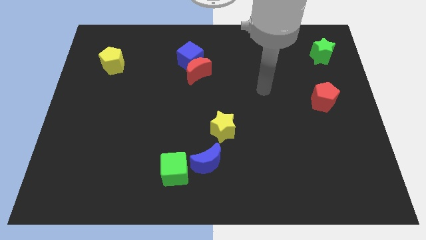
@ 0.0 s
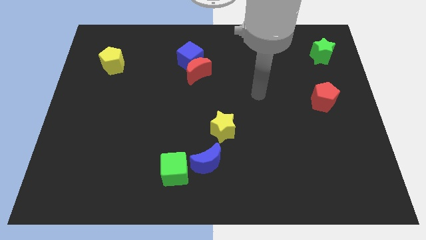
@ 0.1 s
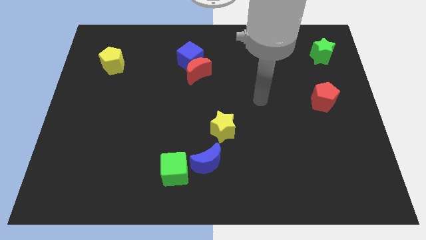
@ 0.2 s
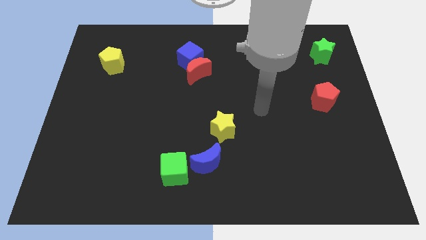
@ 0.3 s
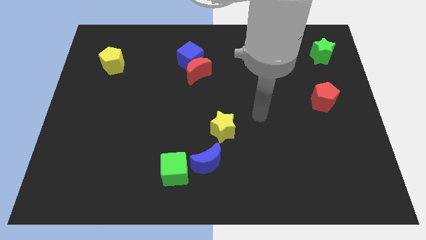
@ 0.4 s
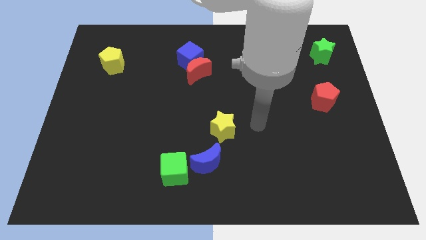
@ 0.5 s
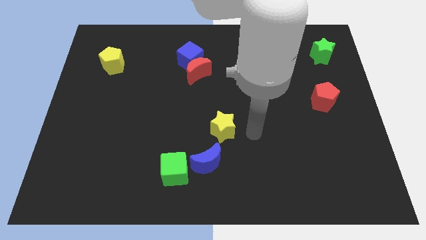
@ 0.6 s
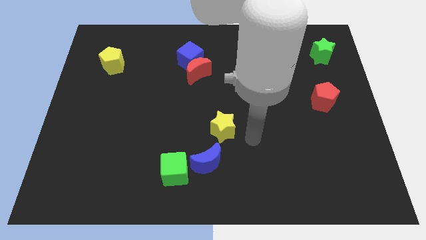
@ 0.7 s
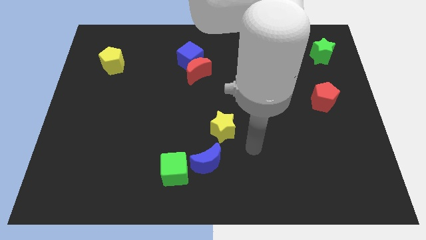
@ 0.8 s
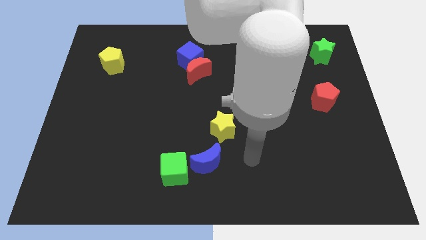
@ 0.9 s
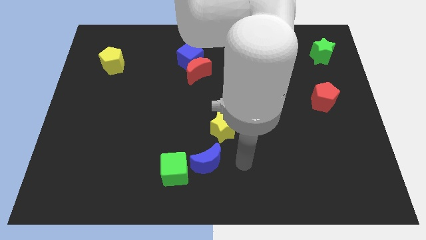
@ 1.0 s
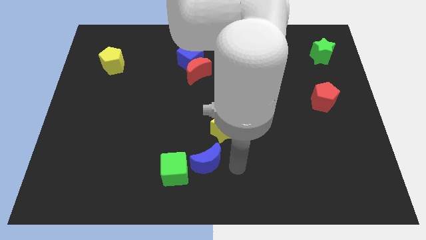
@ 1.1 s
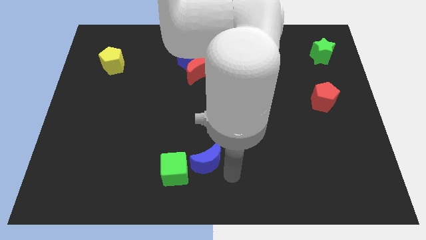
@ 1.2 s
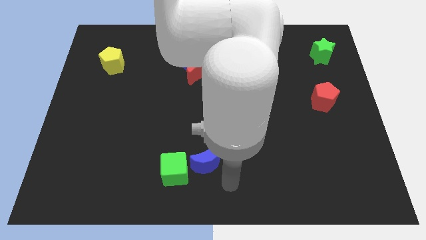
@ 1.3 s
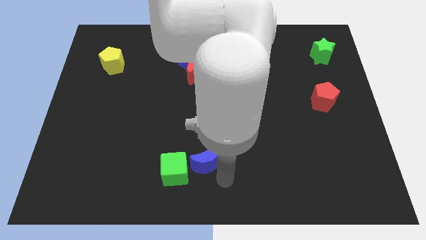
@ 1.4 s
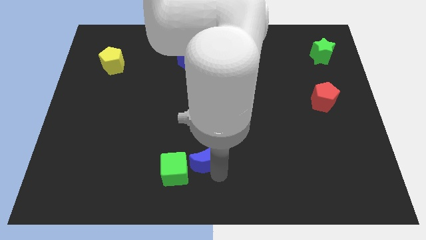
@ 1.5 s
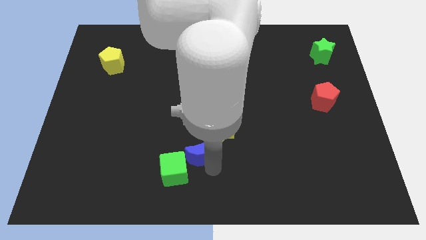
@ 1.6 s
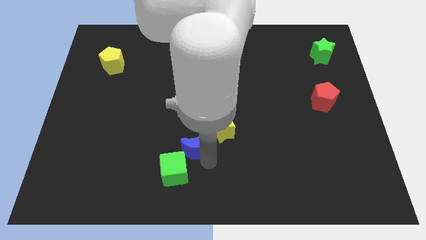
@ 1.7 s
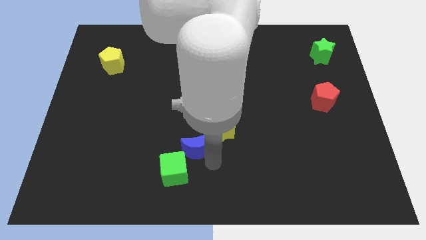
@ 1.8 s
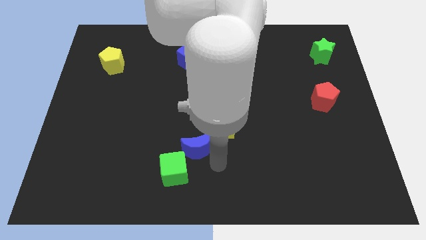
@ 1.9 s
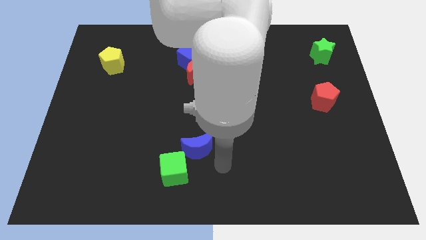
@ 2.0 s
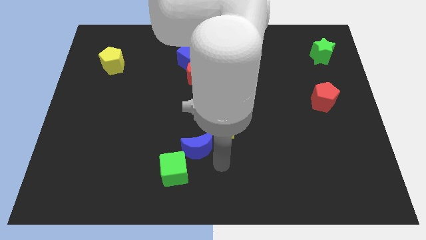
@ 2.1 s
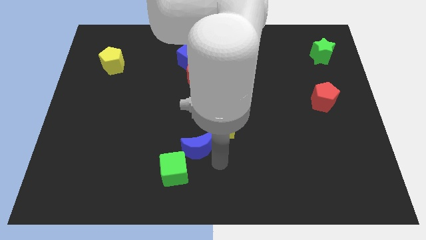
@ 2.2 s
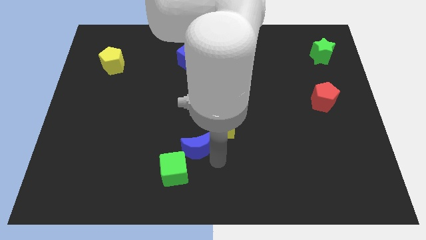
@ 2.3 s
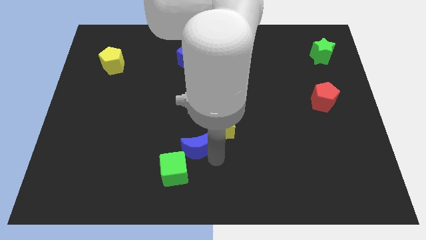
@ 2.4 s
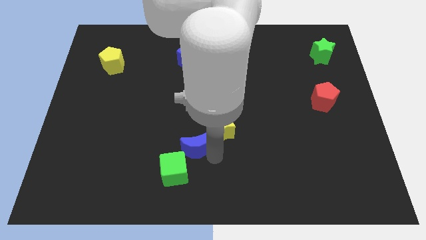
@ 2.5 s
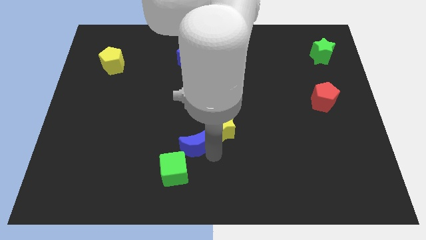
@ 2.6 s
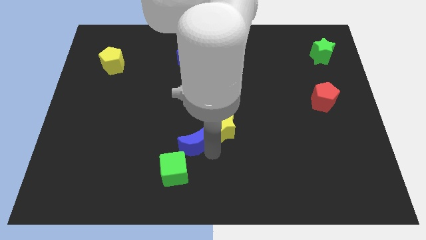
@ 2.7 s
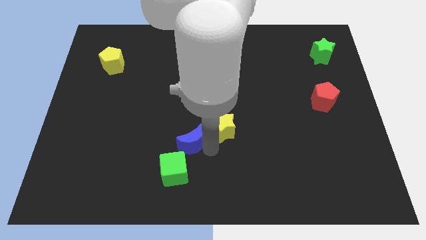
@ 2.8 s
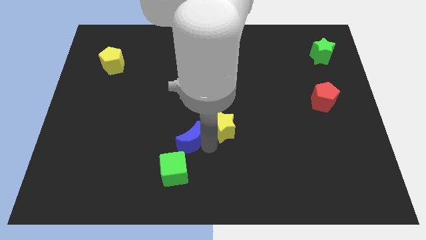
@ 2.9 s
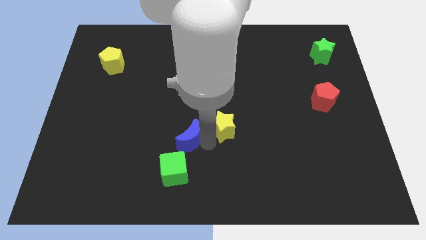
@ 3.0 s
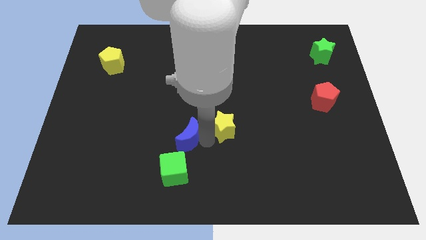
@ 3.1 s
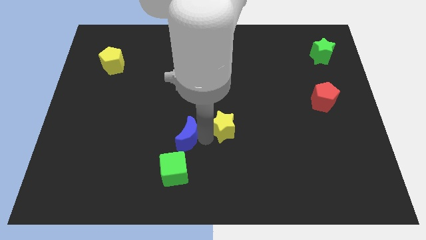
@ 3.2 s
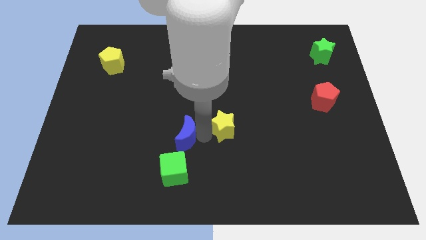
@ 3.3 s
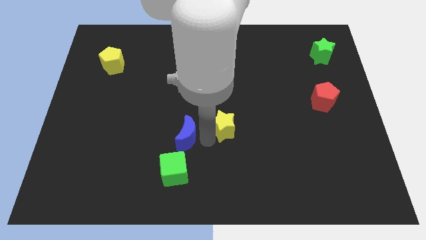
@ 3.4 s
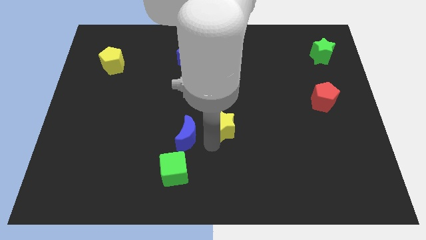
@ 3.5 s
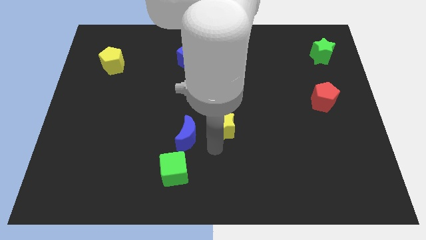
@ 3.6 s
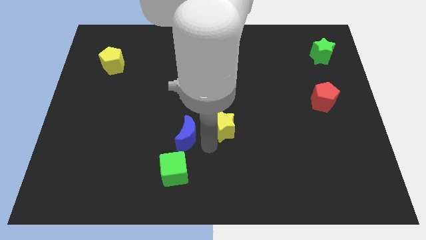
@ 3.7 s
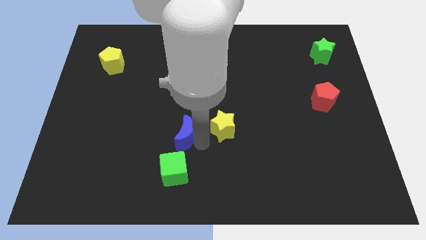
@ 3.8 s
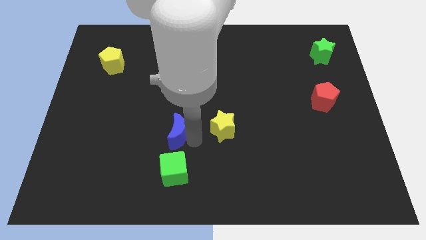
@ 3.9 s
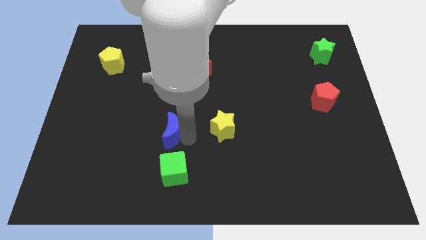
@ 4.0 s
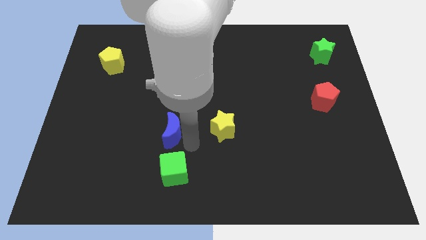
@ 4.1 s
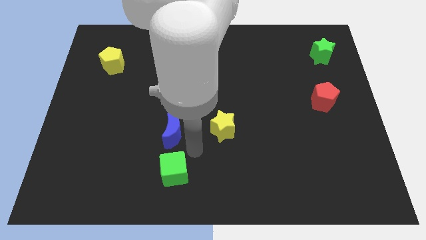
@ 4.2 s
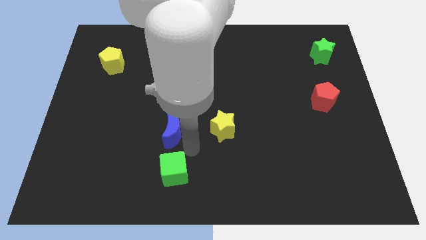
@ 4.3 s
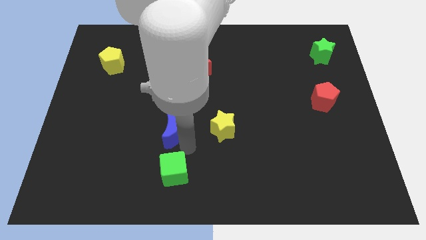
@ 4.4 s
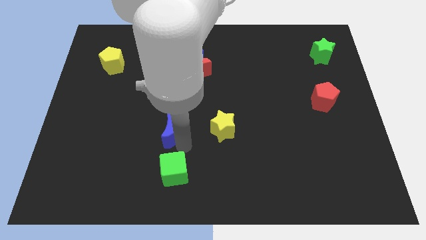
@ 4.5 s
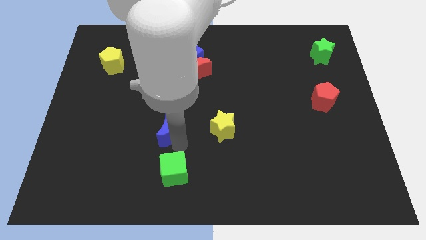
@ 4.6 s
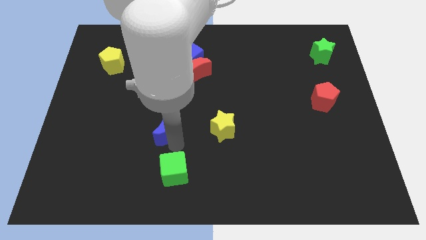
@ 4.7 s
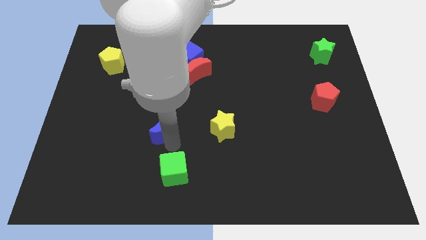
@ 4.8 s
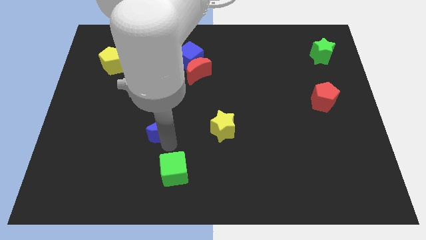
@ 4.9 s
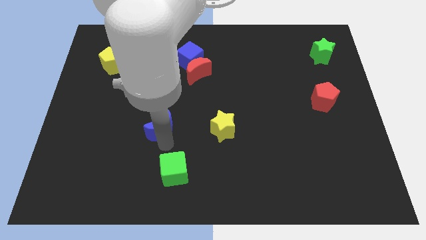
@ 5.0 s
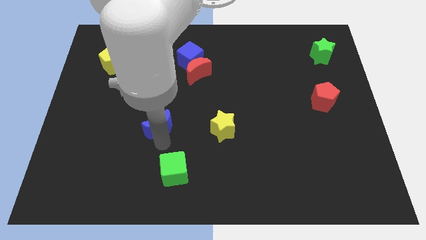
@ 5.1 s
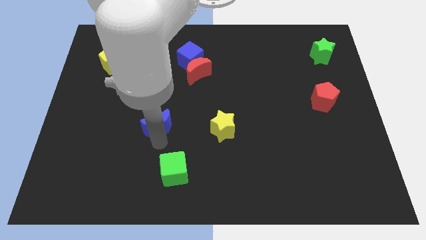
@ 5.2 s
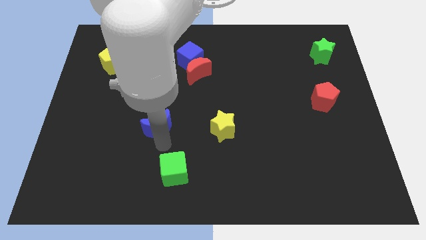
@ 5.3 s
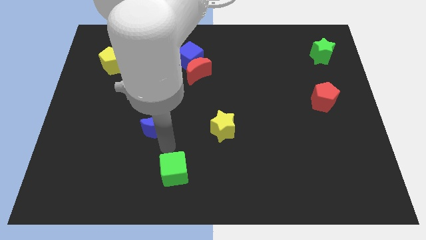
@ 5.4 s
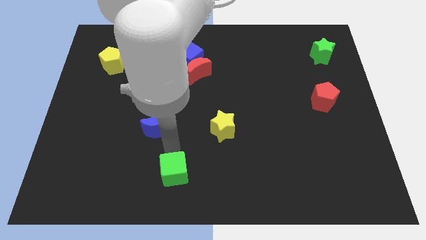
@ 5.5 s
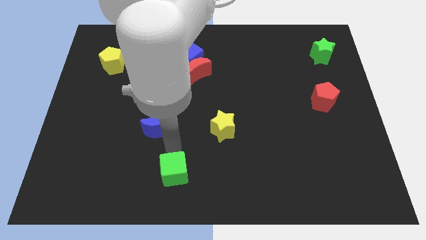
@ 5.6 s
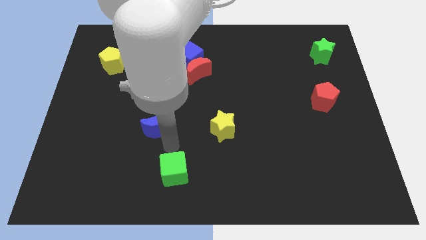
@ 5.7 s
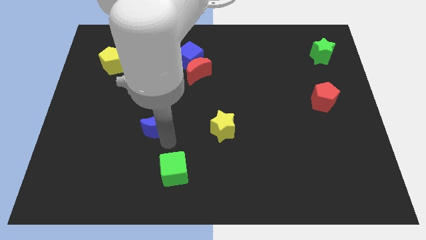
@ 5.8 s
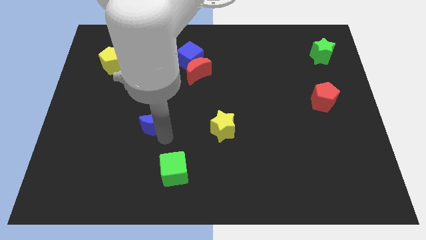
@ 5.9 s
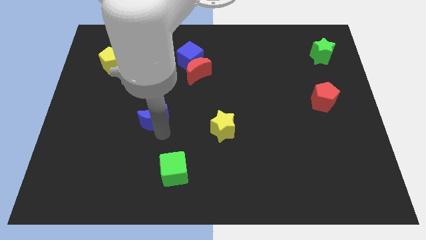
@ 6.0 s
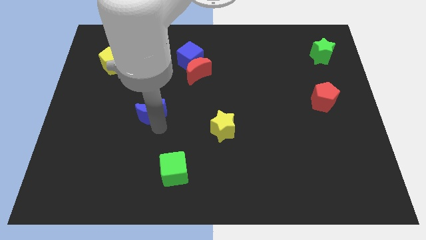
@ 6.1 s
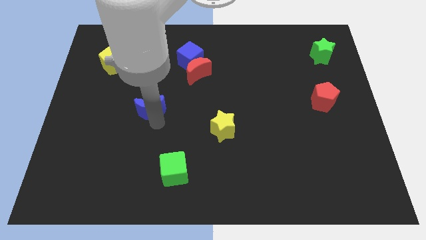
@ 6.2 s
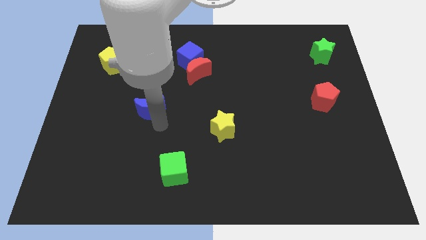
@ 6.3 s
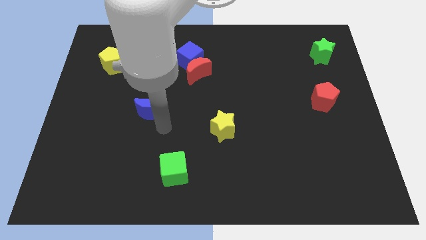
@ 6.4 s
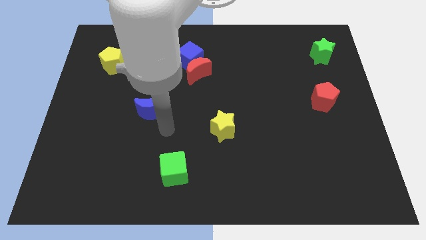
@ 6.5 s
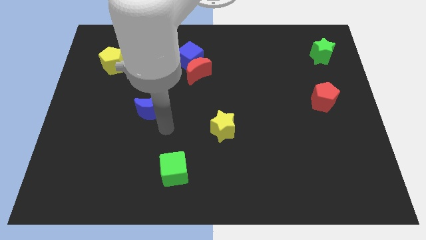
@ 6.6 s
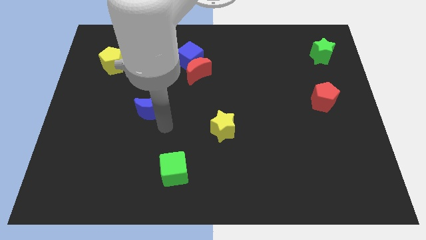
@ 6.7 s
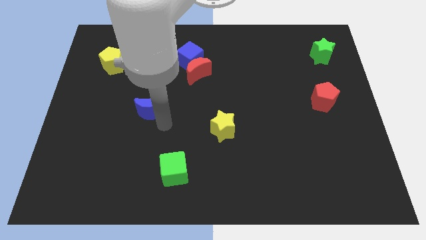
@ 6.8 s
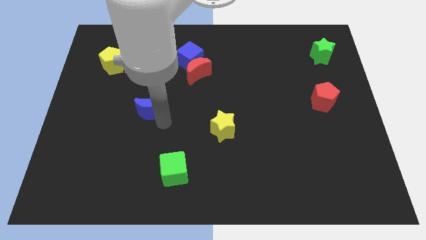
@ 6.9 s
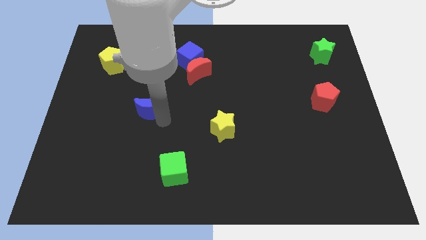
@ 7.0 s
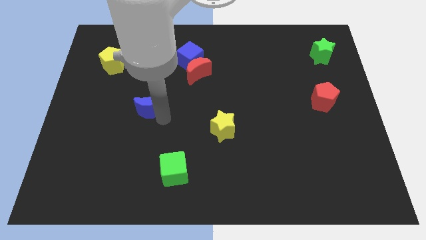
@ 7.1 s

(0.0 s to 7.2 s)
push the blue moon up and left

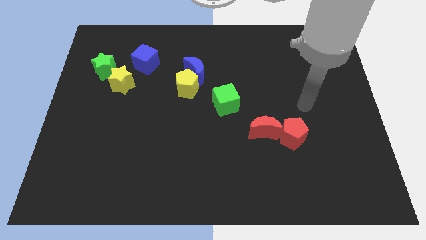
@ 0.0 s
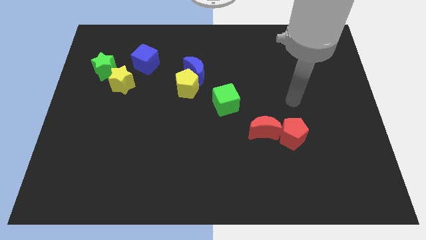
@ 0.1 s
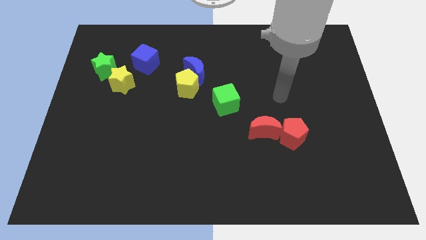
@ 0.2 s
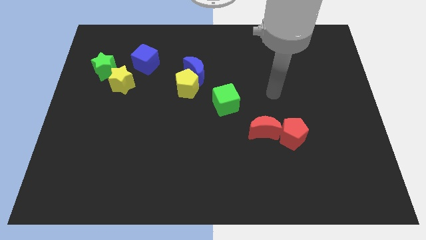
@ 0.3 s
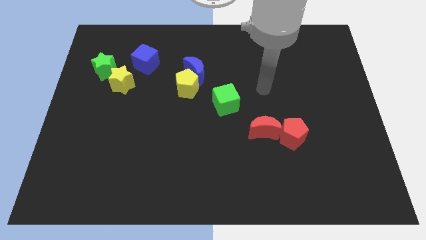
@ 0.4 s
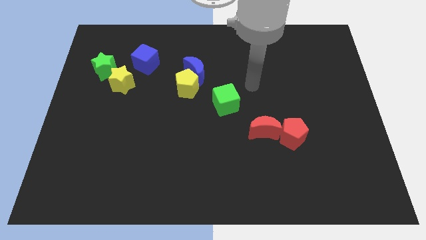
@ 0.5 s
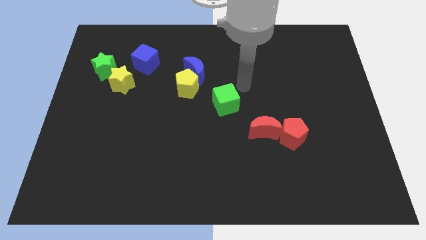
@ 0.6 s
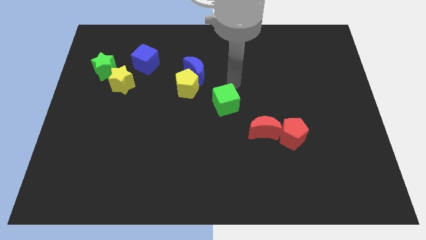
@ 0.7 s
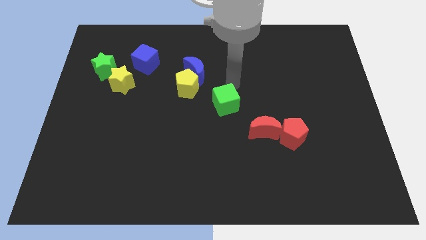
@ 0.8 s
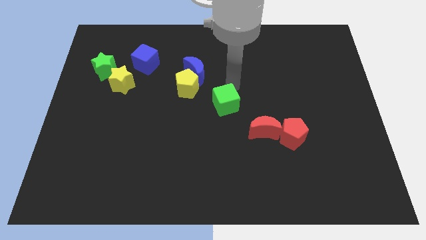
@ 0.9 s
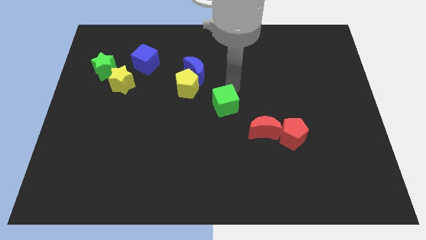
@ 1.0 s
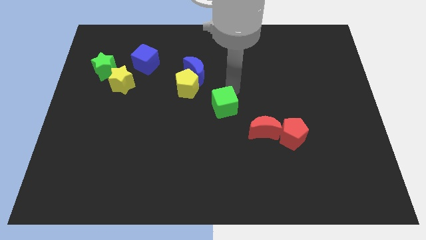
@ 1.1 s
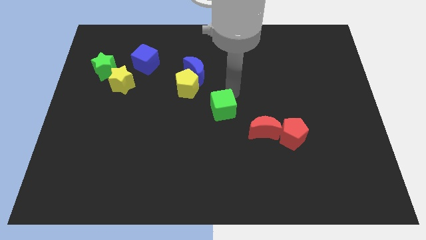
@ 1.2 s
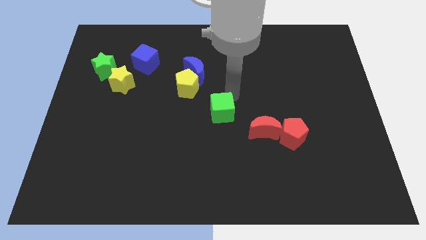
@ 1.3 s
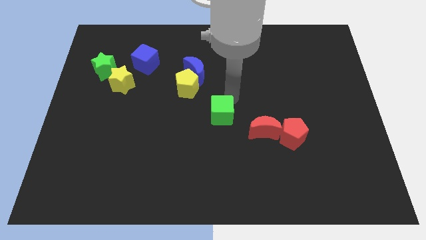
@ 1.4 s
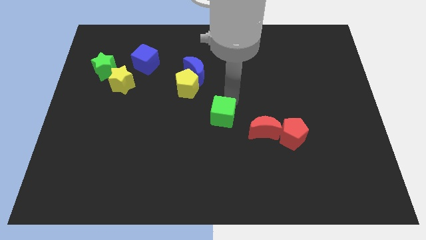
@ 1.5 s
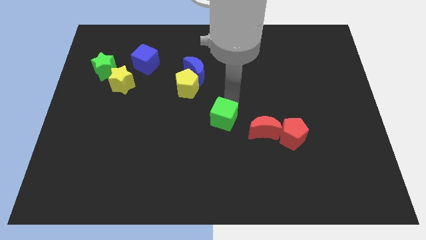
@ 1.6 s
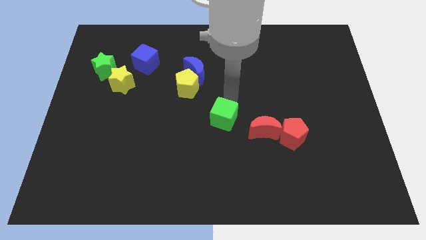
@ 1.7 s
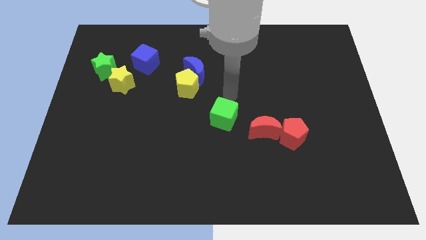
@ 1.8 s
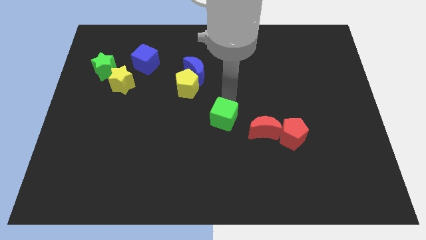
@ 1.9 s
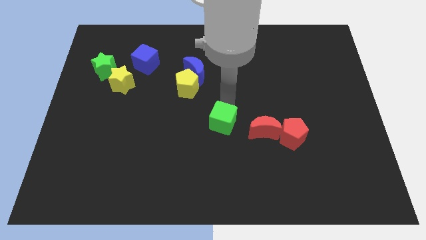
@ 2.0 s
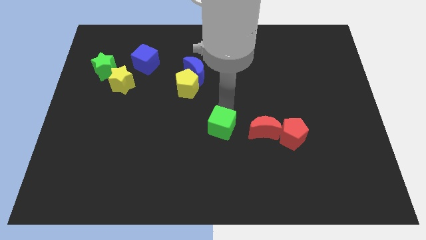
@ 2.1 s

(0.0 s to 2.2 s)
push the green cube down a bit
